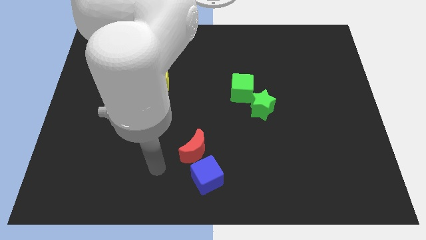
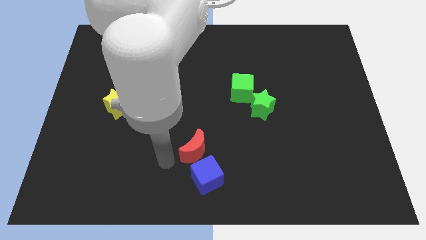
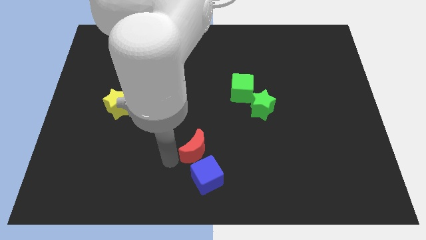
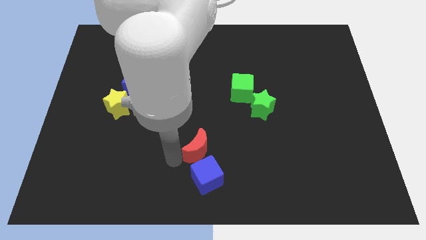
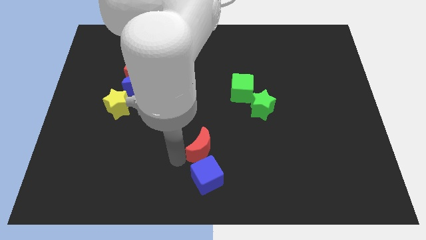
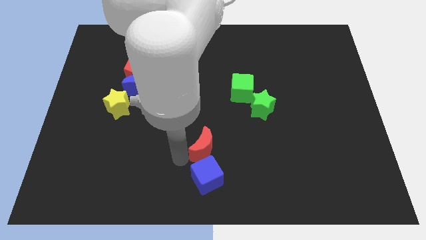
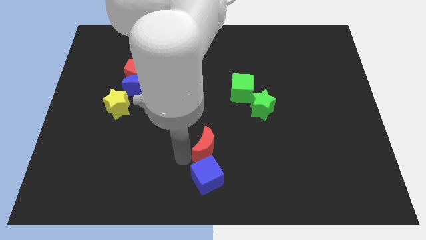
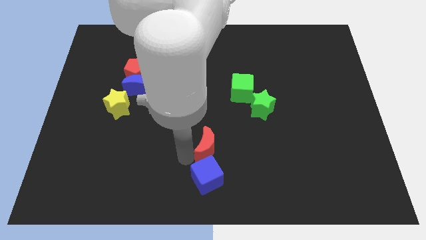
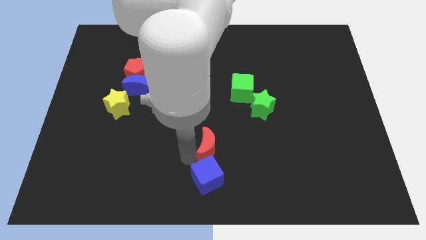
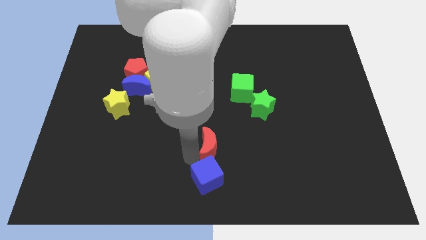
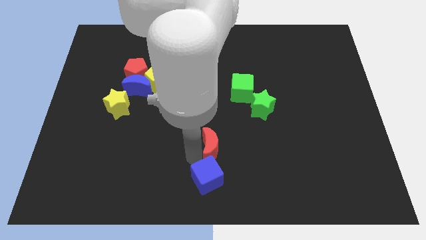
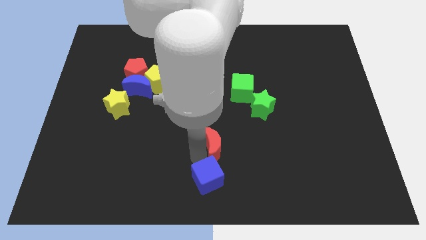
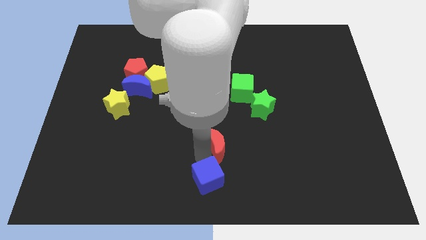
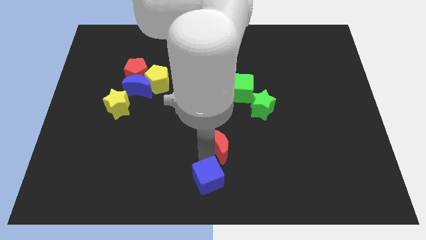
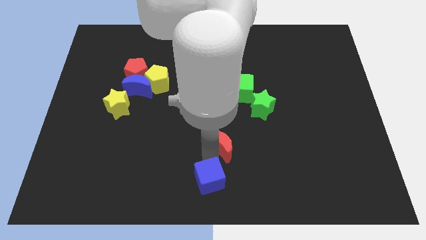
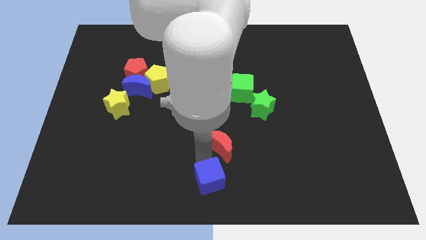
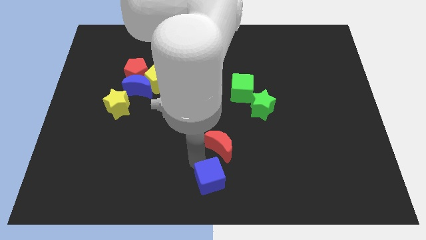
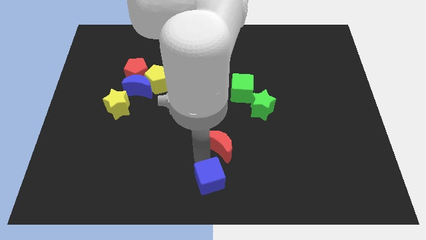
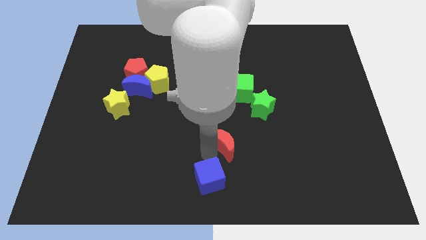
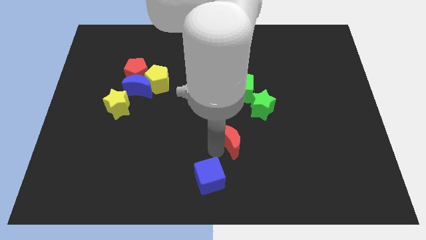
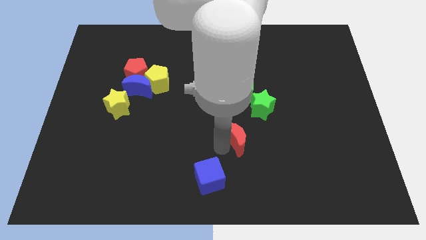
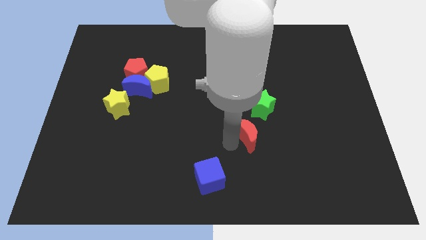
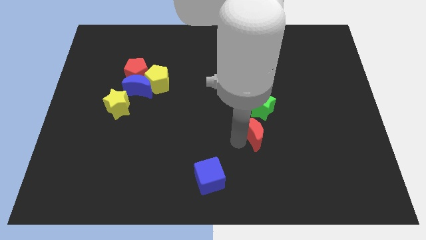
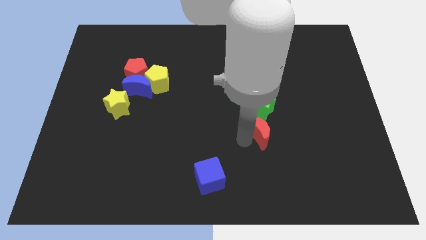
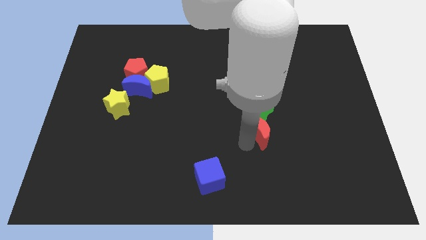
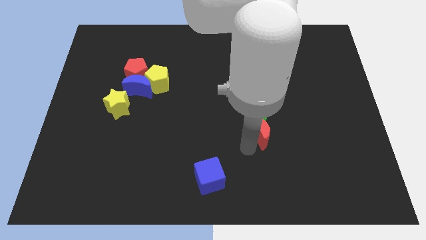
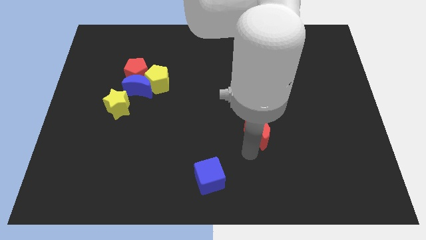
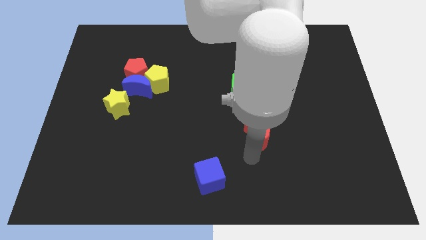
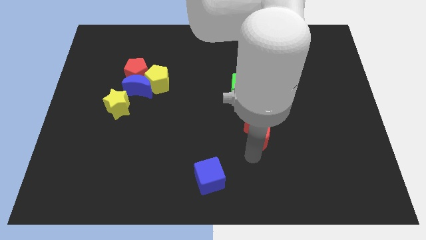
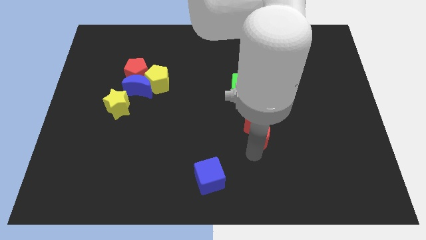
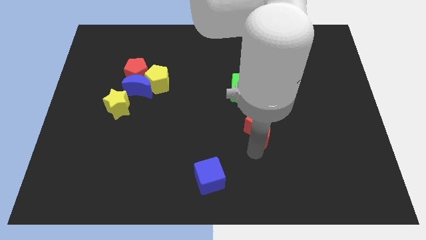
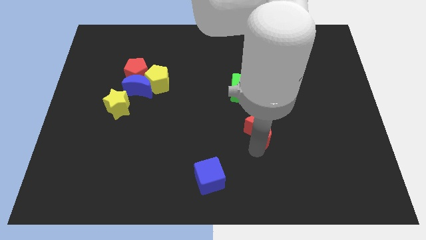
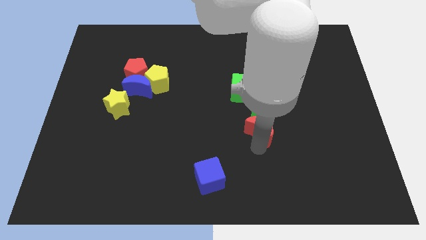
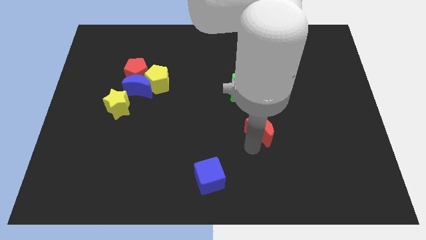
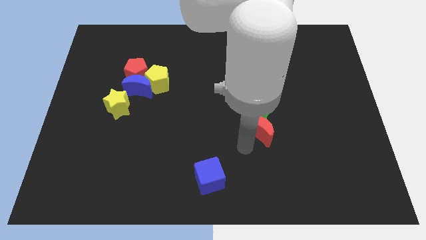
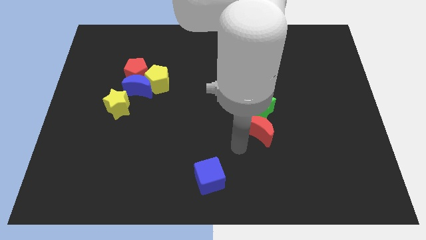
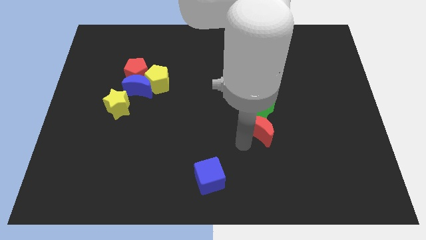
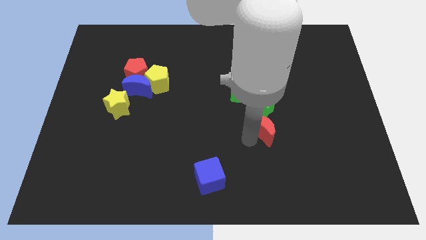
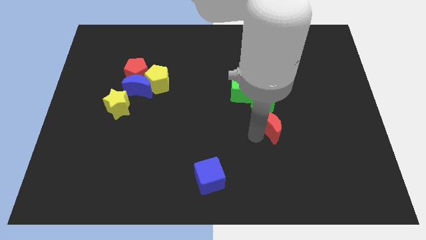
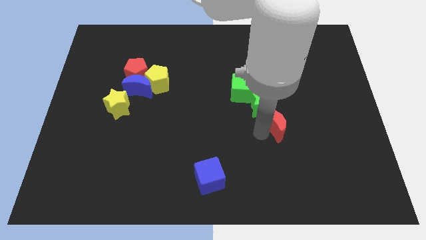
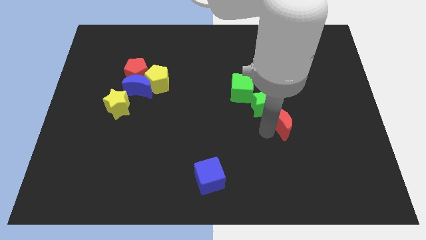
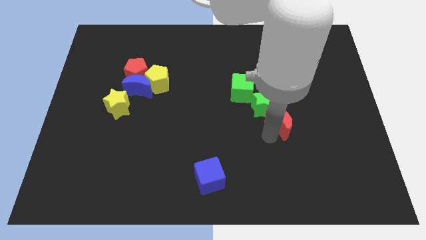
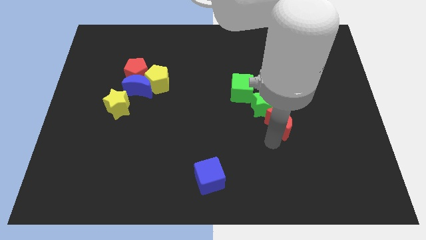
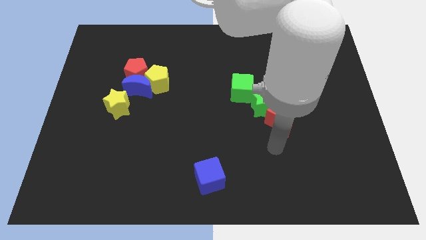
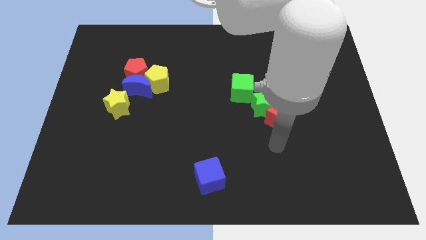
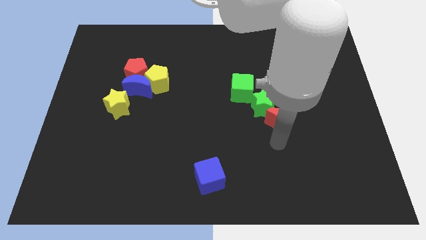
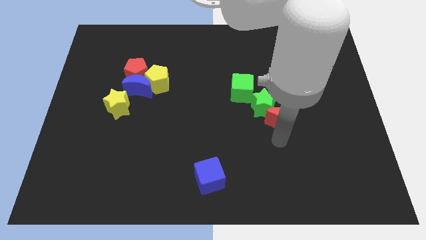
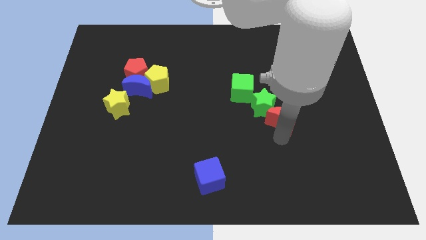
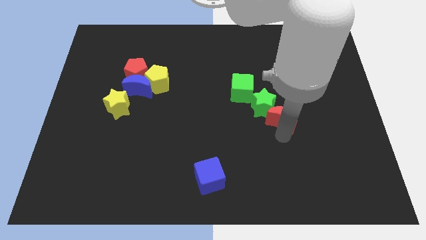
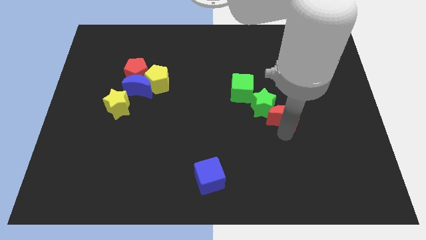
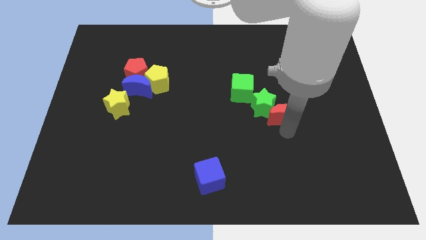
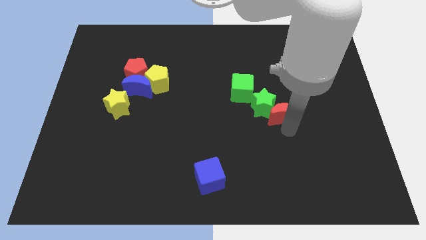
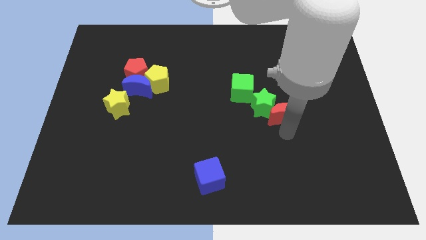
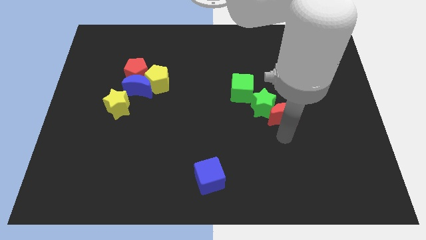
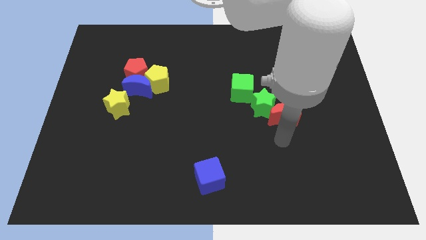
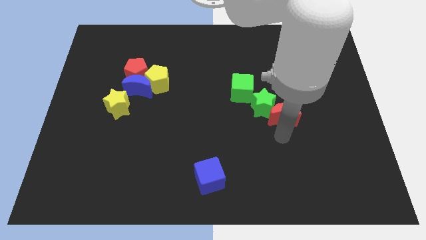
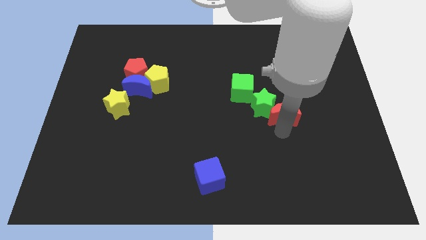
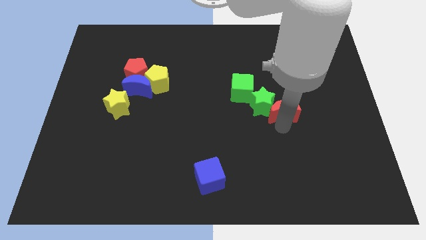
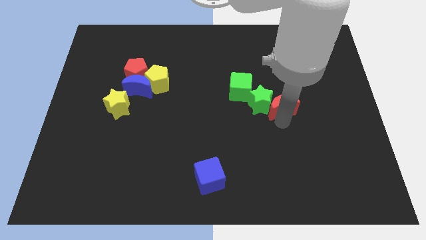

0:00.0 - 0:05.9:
slide the red moon to the top right of the green star

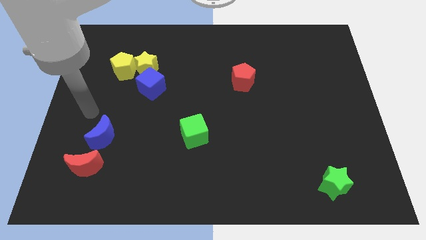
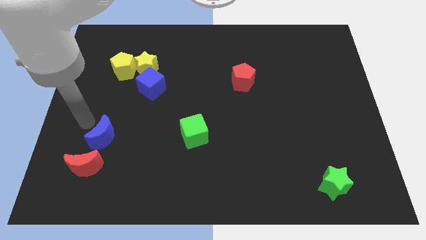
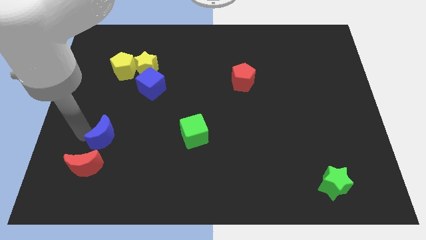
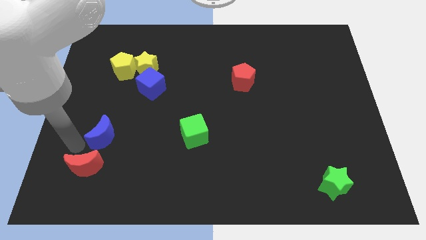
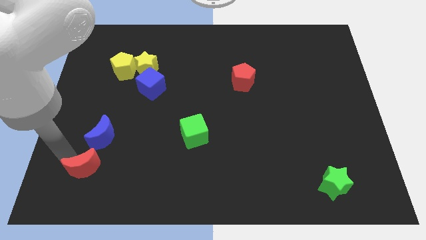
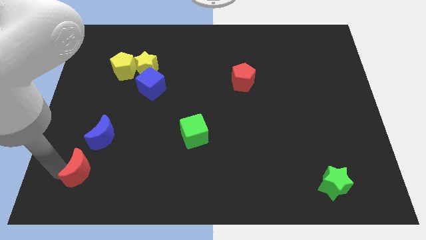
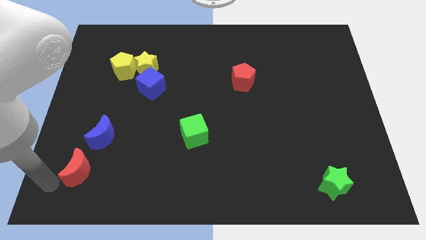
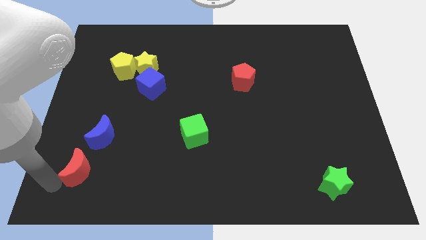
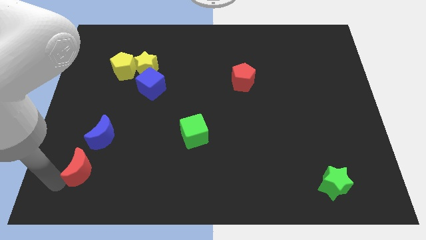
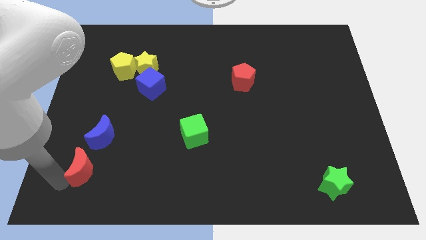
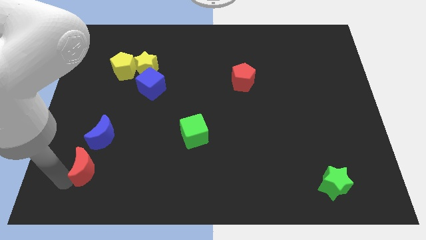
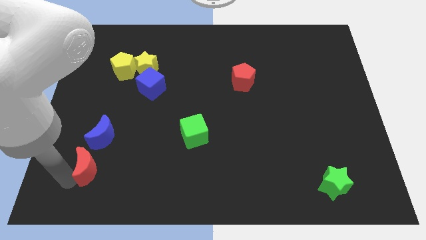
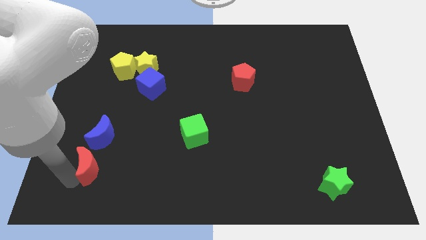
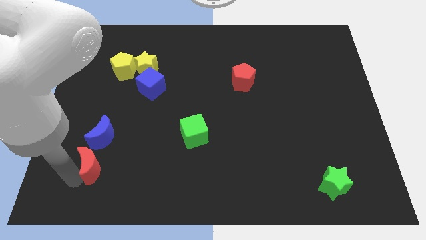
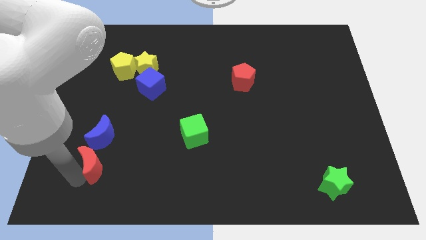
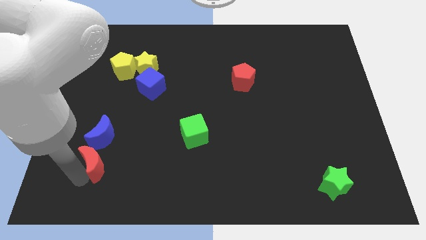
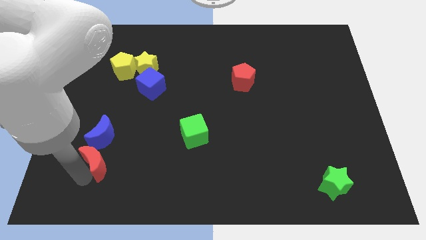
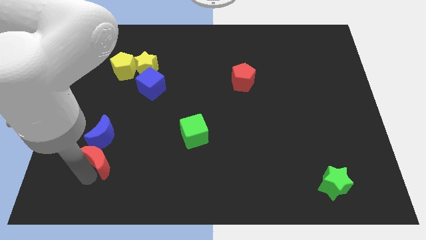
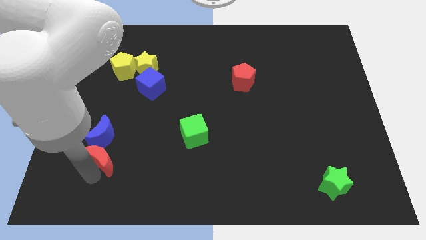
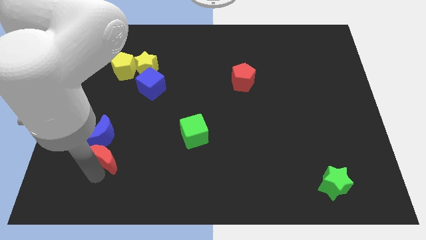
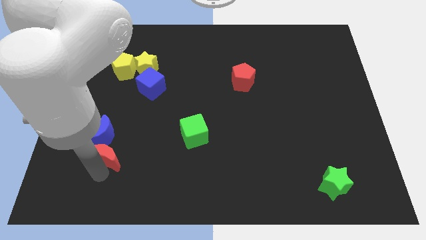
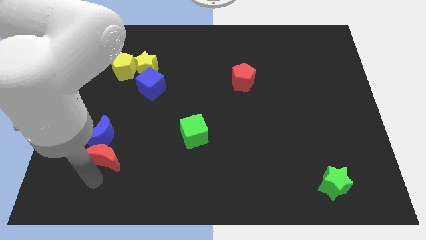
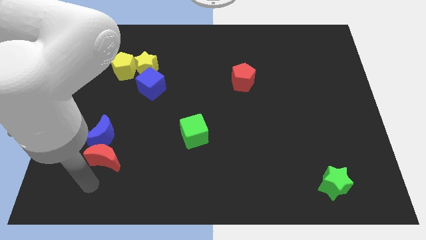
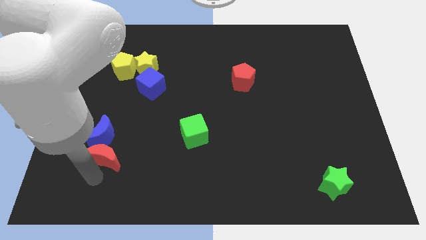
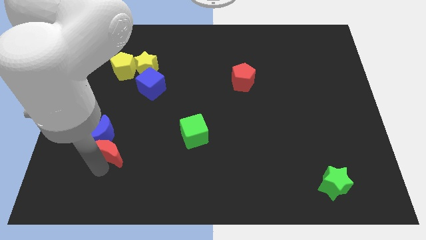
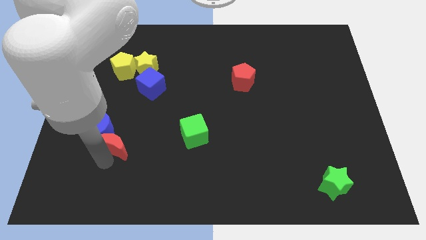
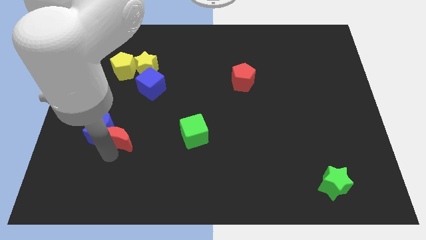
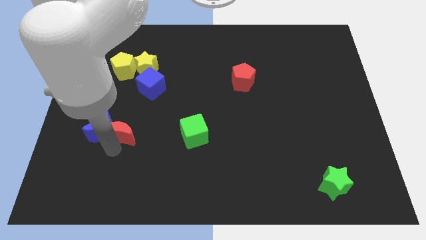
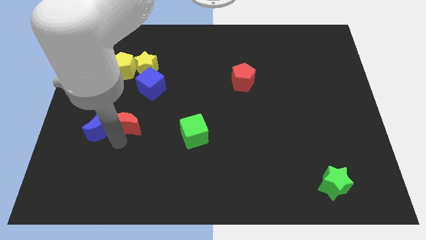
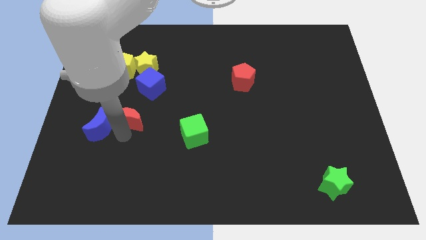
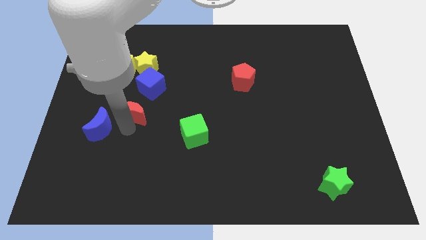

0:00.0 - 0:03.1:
move the red moon diagonally down and to the left of the blue cube
